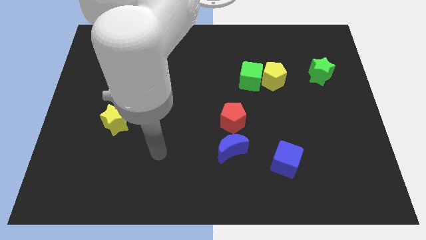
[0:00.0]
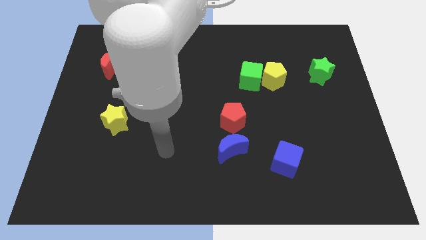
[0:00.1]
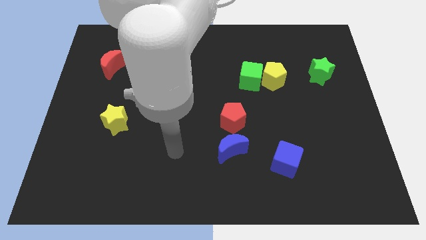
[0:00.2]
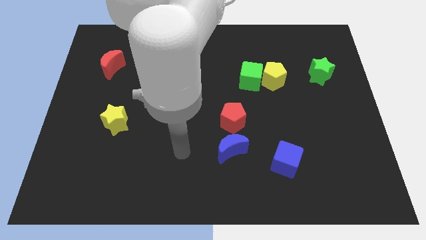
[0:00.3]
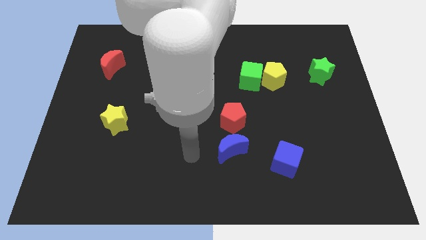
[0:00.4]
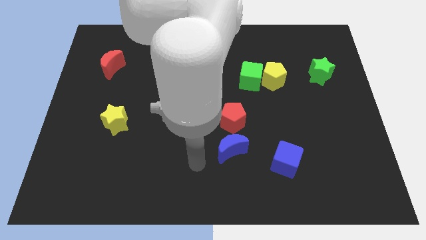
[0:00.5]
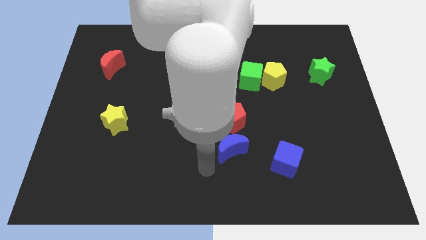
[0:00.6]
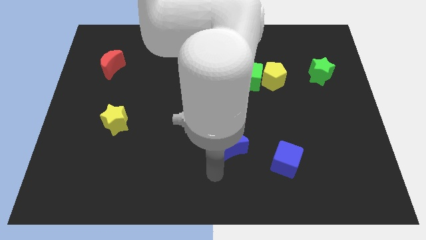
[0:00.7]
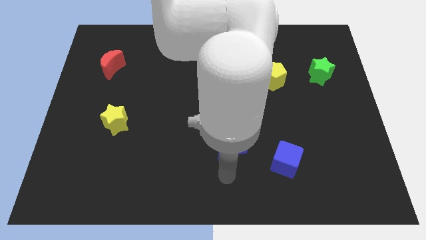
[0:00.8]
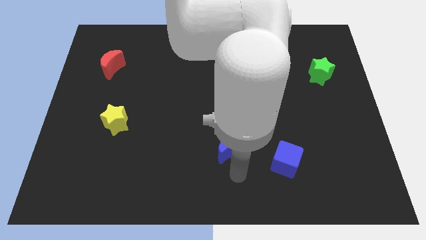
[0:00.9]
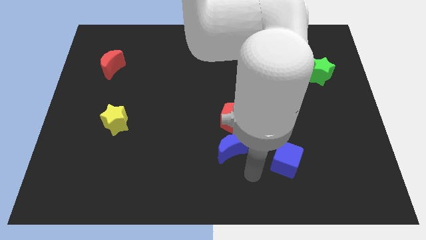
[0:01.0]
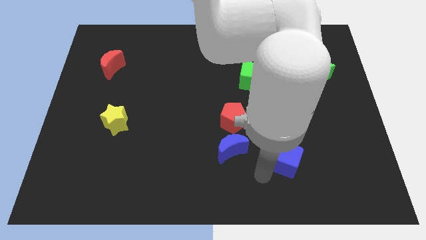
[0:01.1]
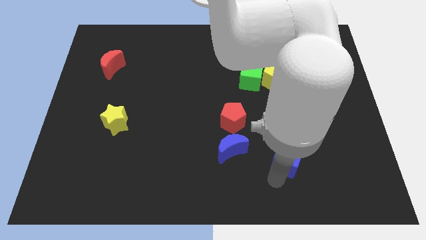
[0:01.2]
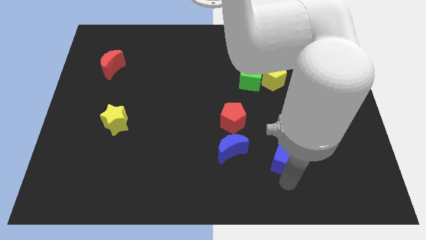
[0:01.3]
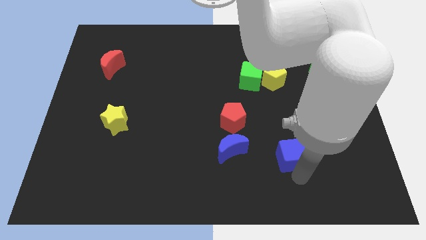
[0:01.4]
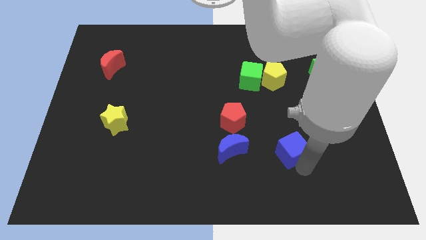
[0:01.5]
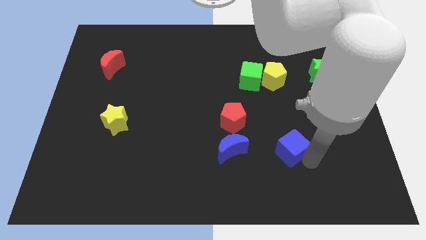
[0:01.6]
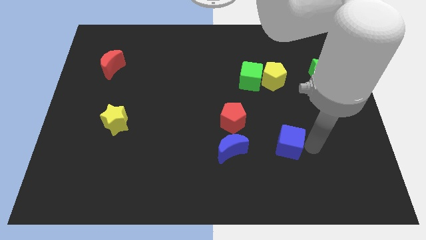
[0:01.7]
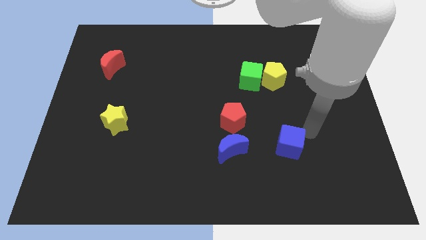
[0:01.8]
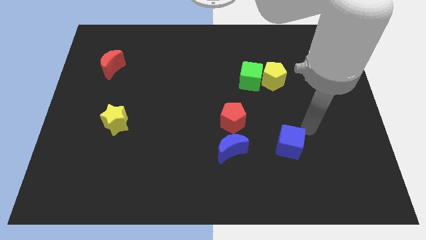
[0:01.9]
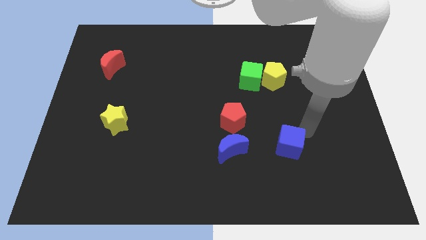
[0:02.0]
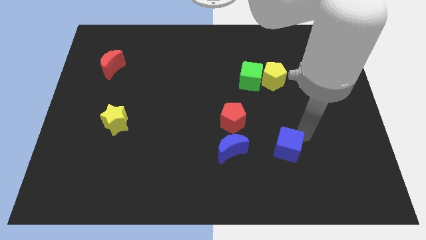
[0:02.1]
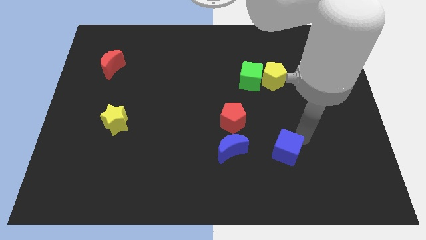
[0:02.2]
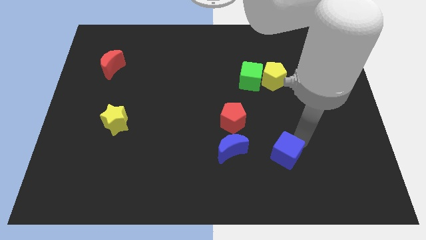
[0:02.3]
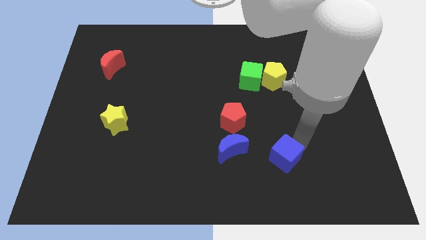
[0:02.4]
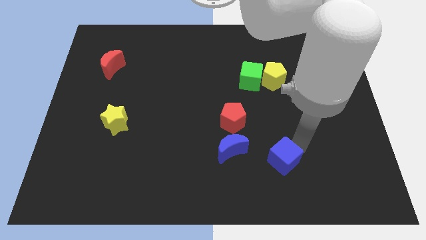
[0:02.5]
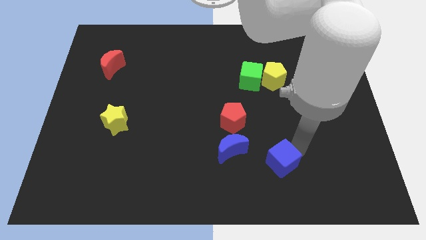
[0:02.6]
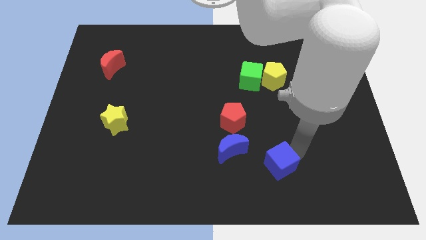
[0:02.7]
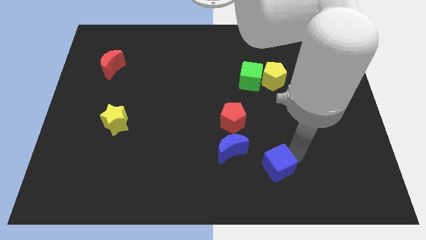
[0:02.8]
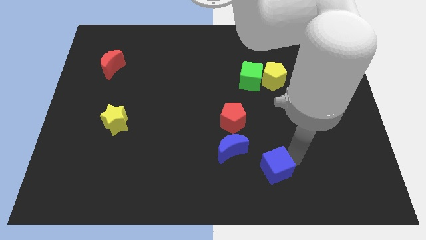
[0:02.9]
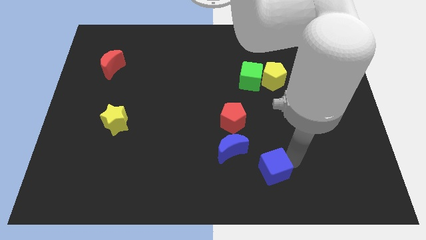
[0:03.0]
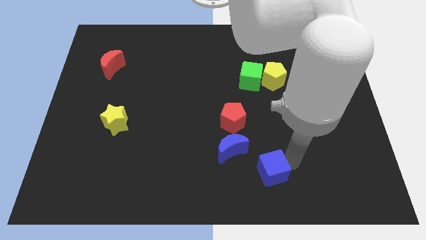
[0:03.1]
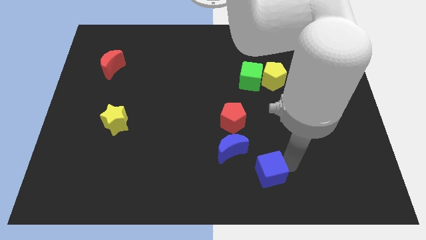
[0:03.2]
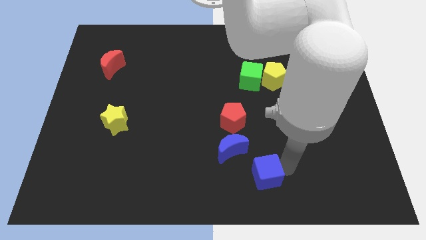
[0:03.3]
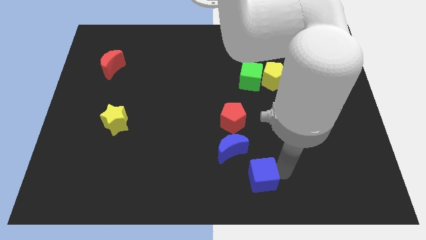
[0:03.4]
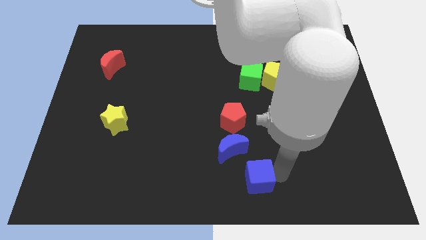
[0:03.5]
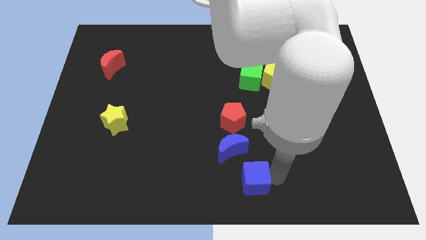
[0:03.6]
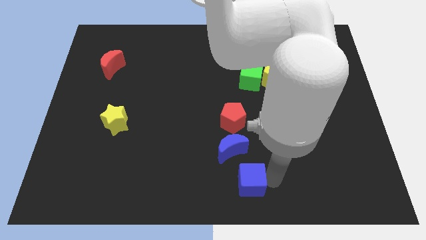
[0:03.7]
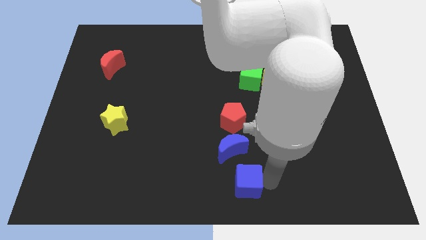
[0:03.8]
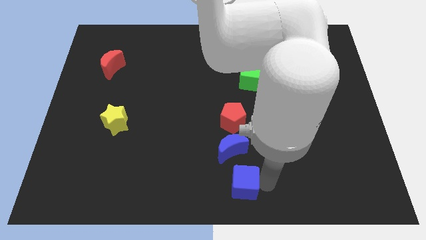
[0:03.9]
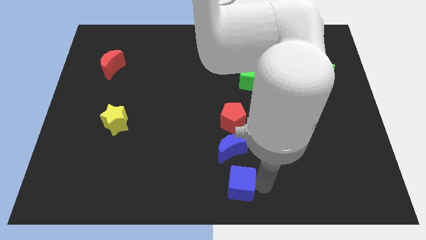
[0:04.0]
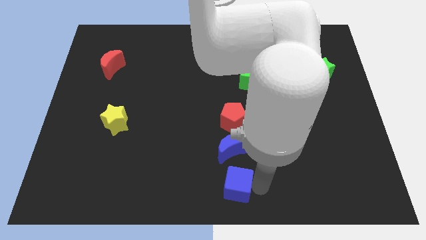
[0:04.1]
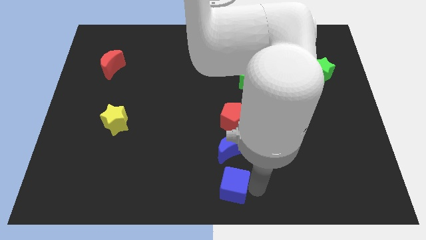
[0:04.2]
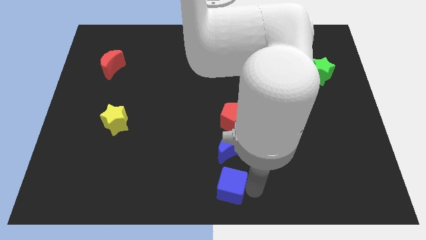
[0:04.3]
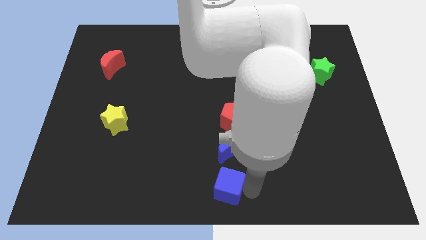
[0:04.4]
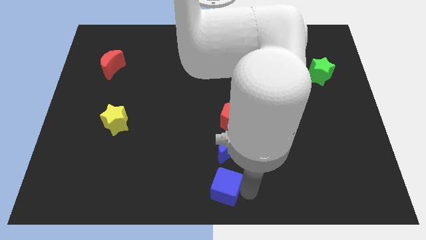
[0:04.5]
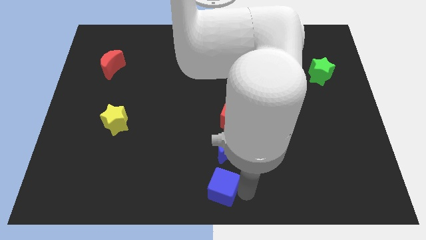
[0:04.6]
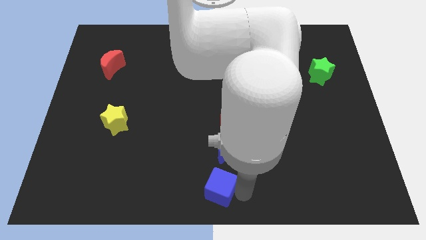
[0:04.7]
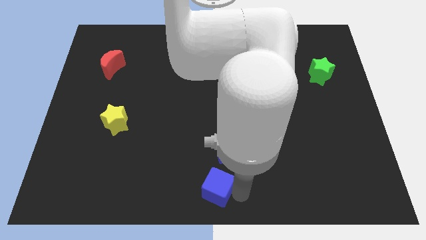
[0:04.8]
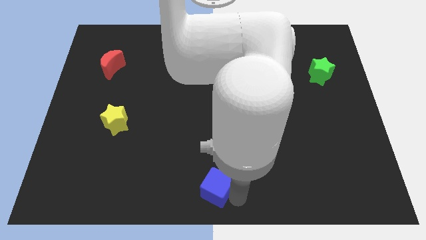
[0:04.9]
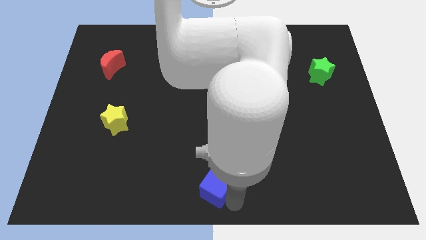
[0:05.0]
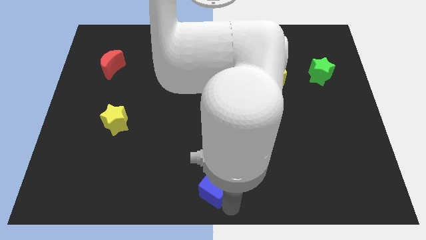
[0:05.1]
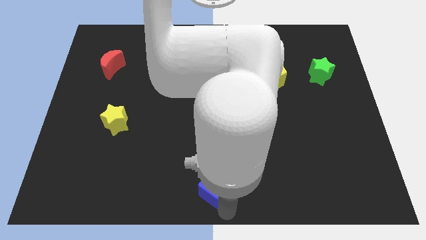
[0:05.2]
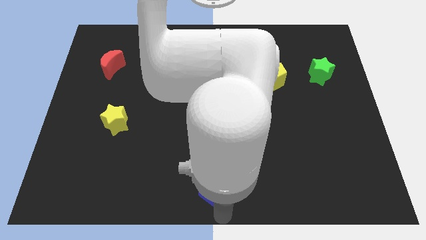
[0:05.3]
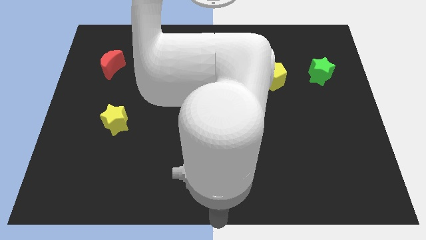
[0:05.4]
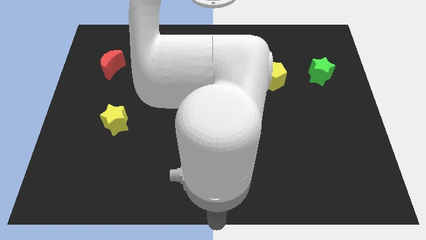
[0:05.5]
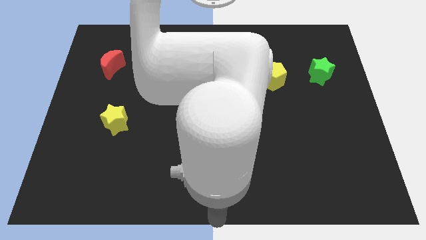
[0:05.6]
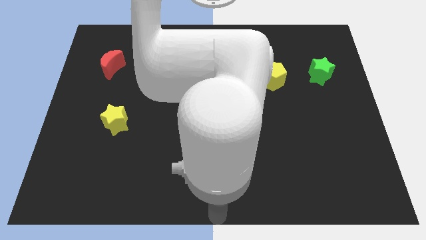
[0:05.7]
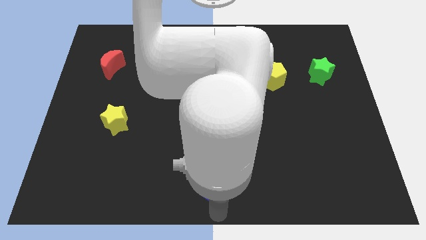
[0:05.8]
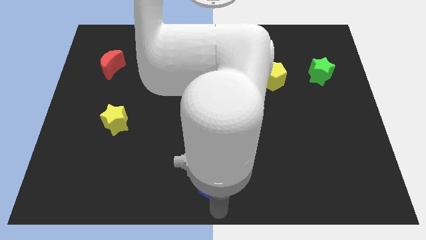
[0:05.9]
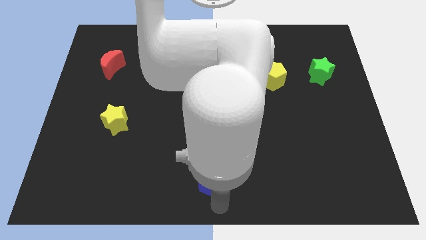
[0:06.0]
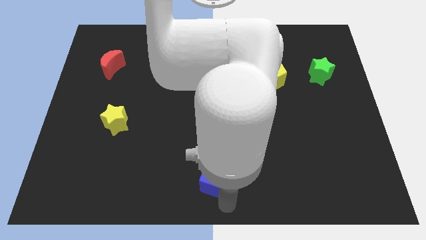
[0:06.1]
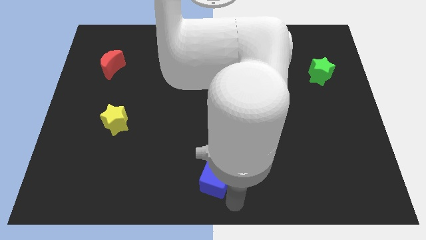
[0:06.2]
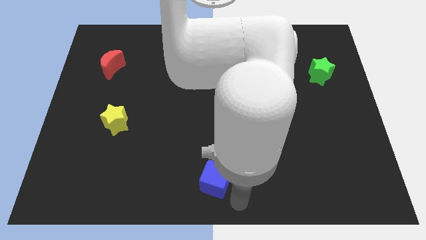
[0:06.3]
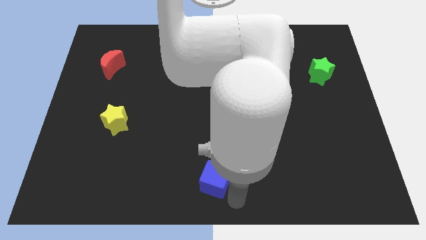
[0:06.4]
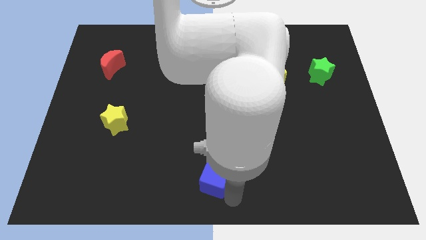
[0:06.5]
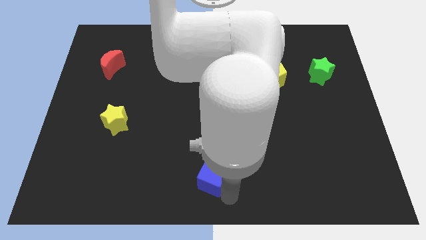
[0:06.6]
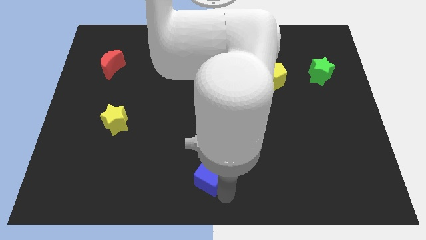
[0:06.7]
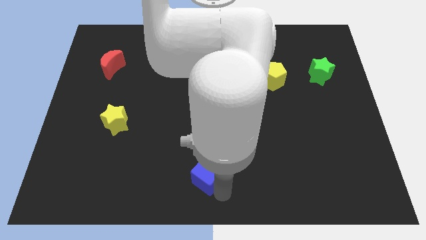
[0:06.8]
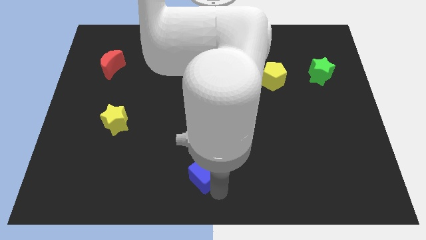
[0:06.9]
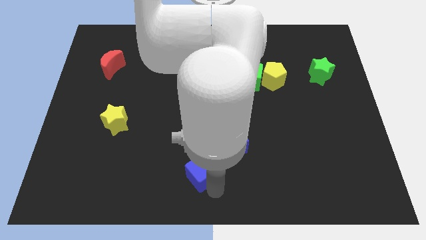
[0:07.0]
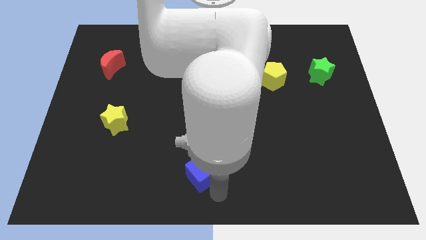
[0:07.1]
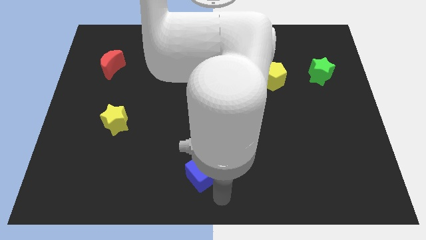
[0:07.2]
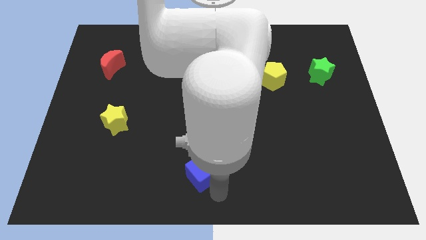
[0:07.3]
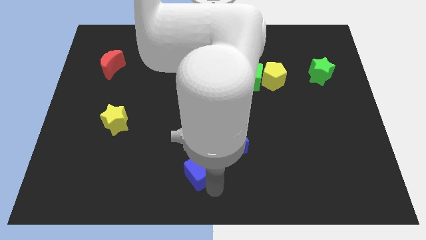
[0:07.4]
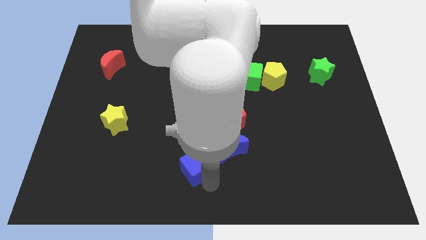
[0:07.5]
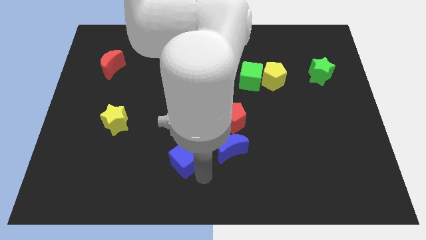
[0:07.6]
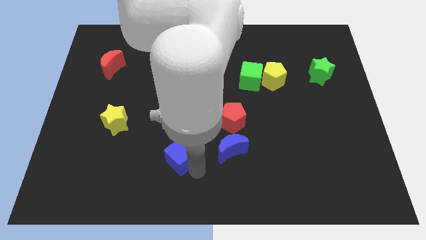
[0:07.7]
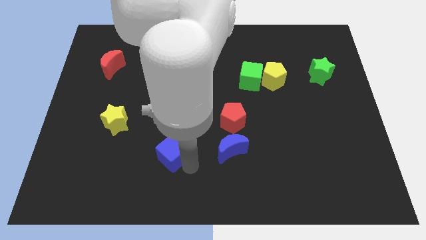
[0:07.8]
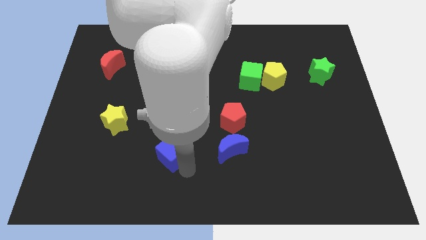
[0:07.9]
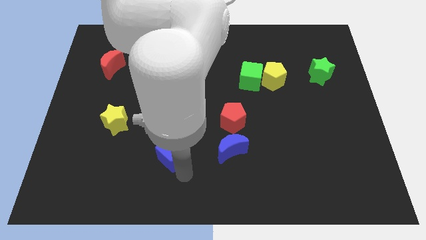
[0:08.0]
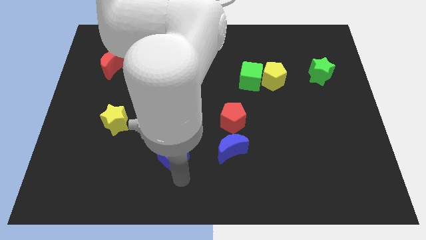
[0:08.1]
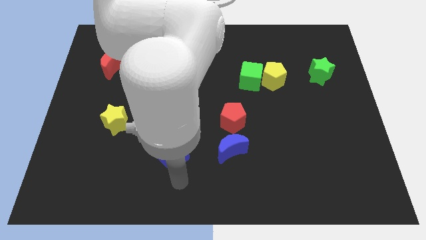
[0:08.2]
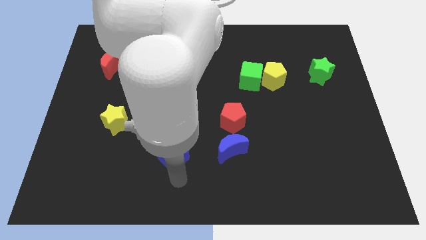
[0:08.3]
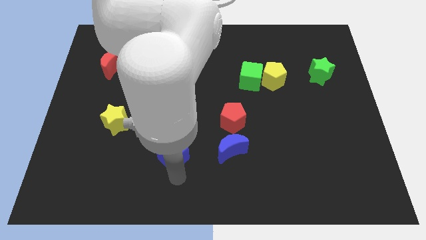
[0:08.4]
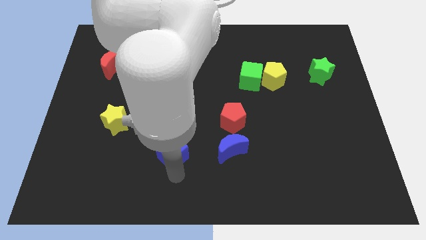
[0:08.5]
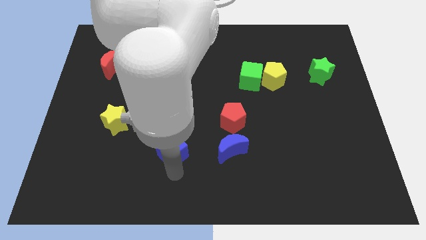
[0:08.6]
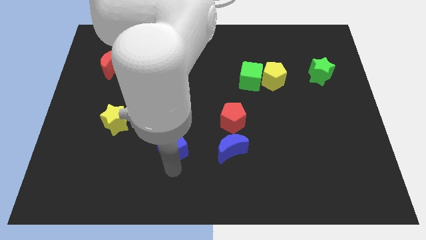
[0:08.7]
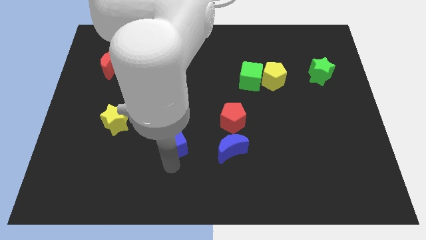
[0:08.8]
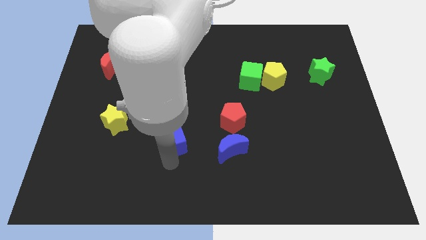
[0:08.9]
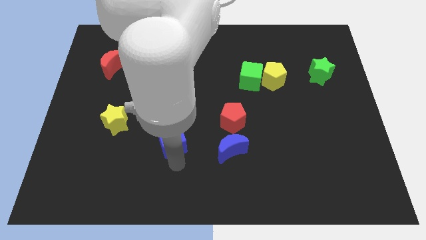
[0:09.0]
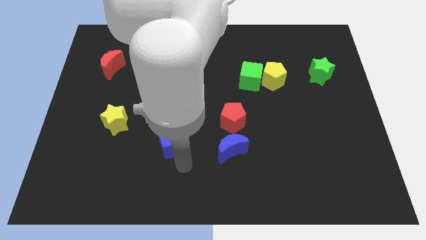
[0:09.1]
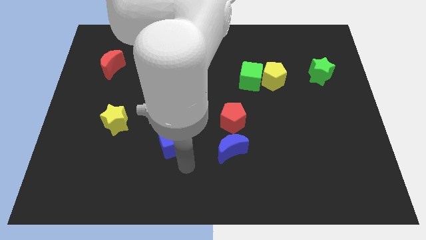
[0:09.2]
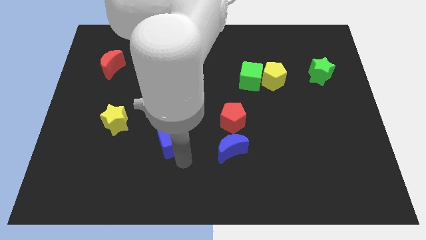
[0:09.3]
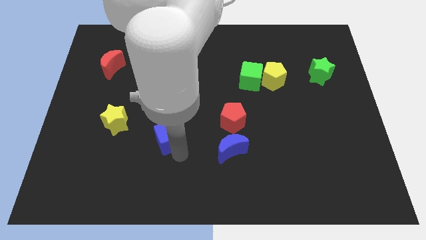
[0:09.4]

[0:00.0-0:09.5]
move the blue cube just right of the yellow star
